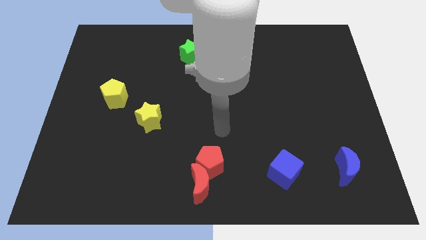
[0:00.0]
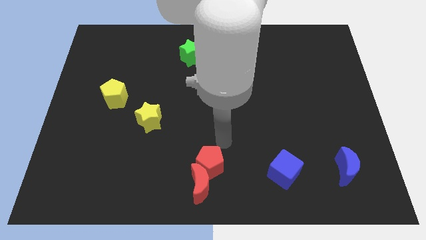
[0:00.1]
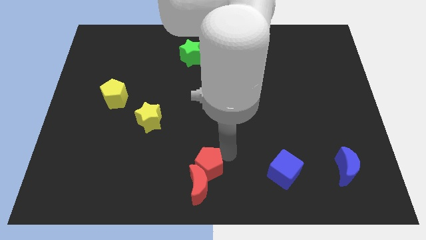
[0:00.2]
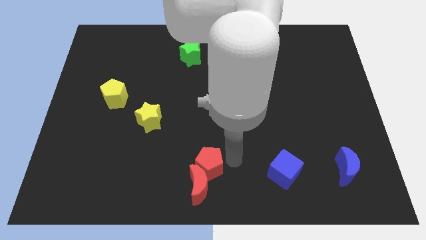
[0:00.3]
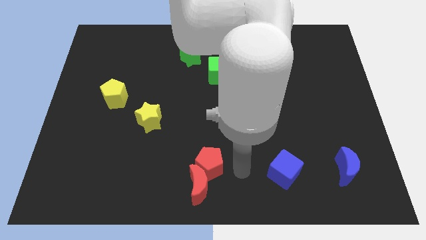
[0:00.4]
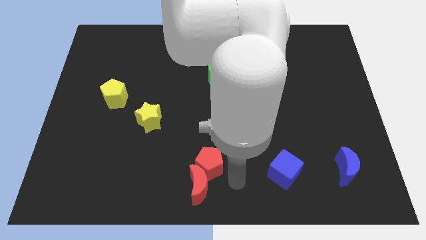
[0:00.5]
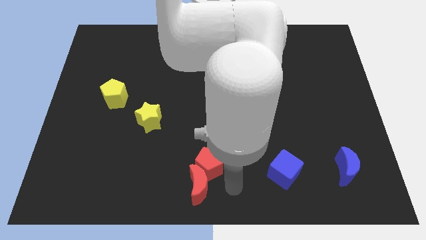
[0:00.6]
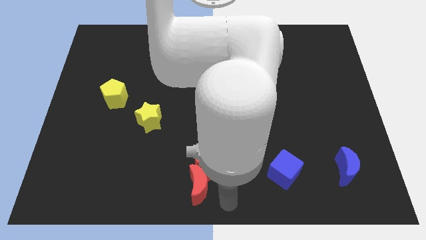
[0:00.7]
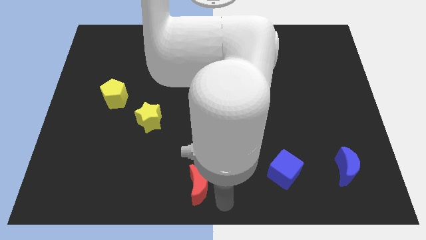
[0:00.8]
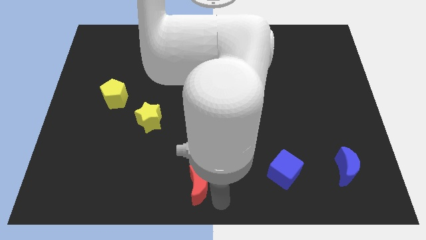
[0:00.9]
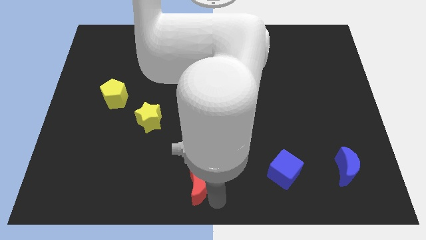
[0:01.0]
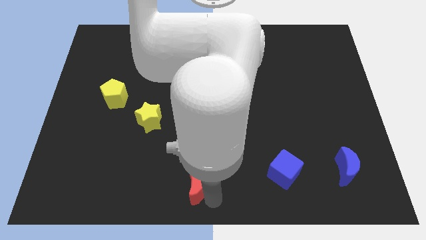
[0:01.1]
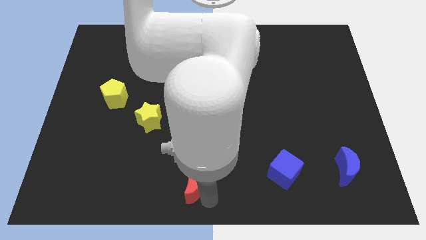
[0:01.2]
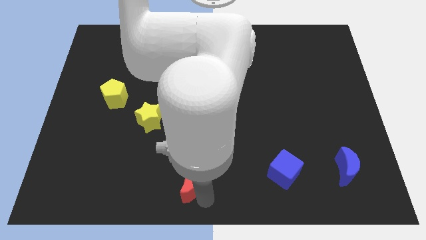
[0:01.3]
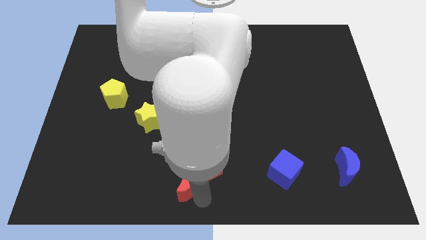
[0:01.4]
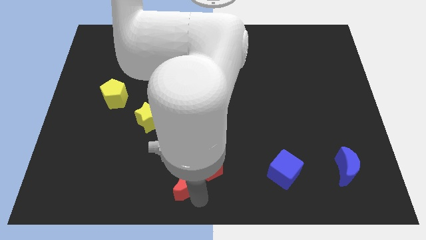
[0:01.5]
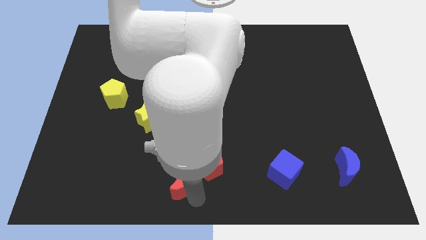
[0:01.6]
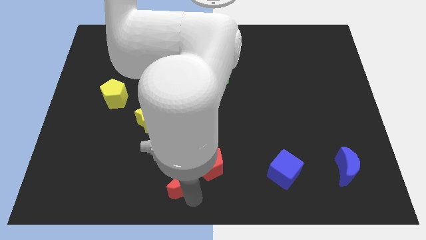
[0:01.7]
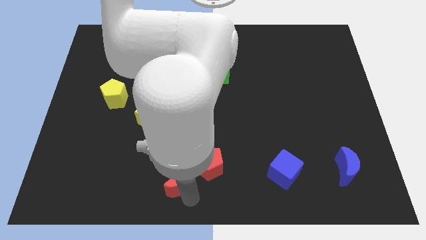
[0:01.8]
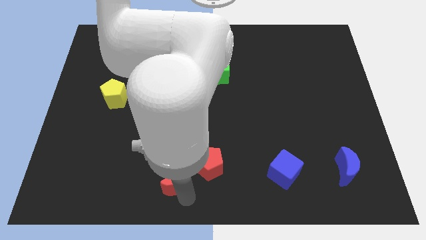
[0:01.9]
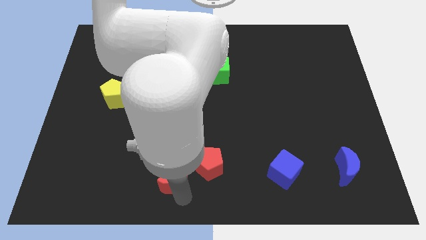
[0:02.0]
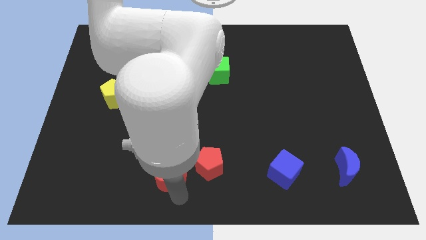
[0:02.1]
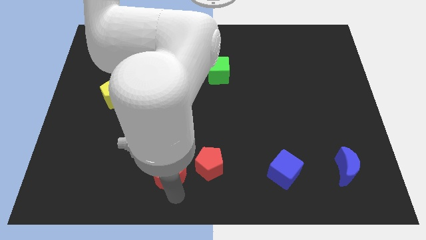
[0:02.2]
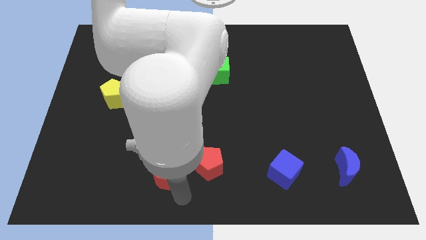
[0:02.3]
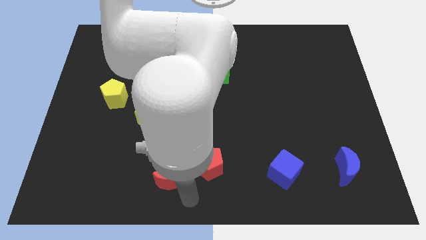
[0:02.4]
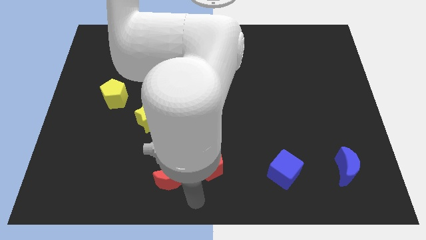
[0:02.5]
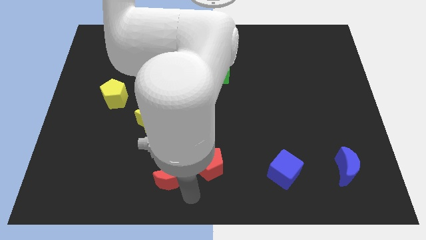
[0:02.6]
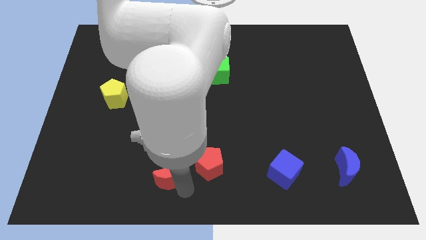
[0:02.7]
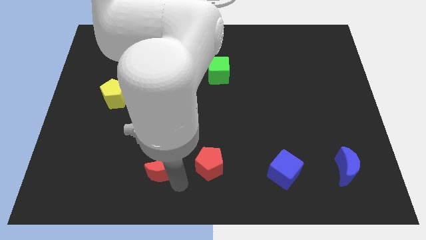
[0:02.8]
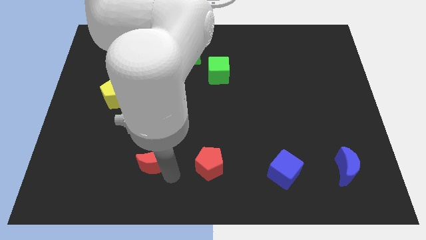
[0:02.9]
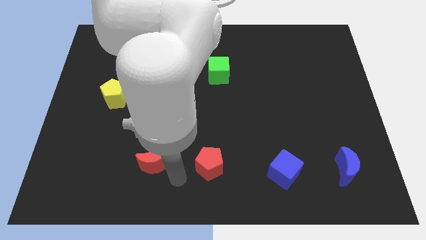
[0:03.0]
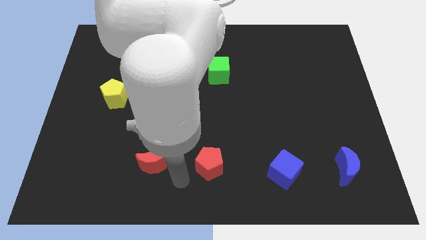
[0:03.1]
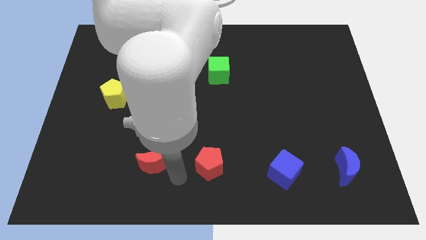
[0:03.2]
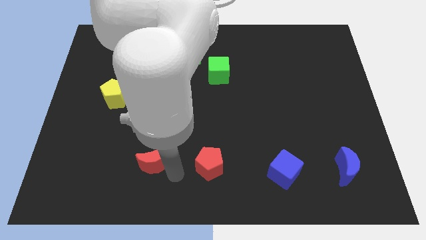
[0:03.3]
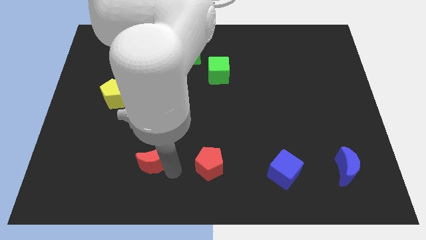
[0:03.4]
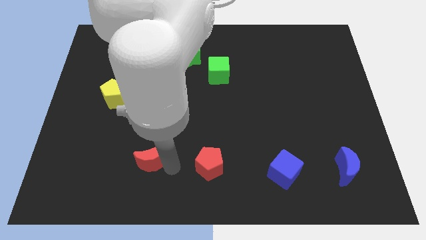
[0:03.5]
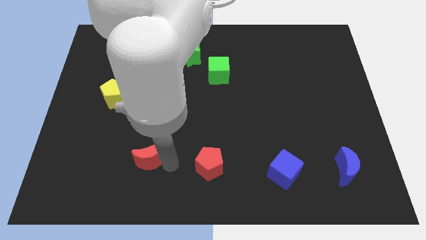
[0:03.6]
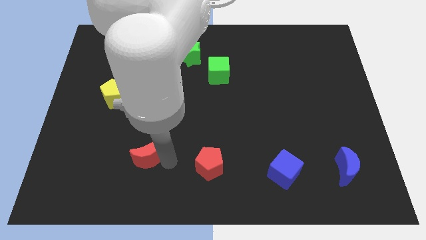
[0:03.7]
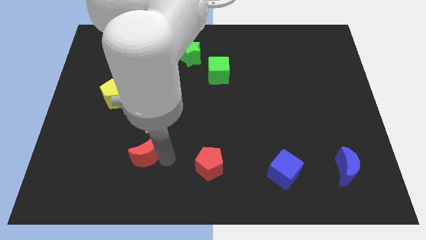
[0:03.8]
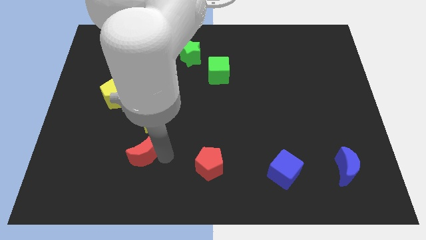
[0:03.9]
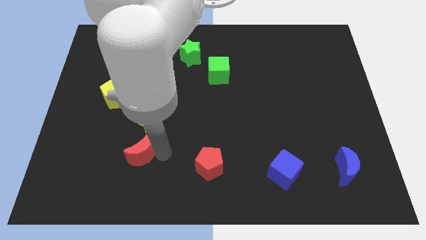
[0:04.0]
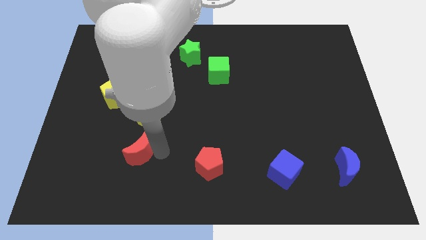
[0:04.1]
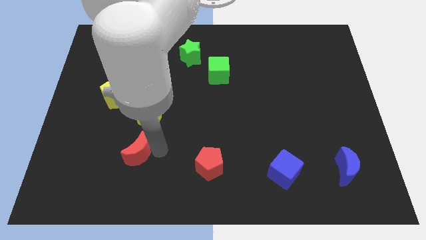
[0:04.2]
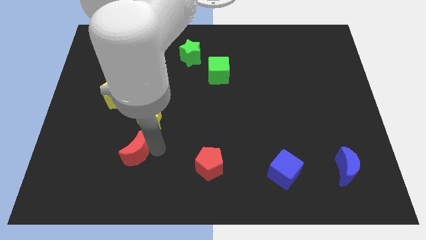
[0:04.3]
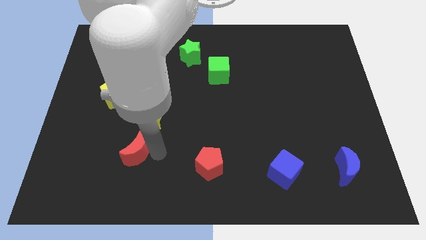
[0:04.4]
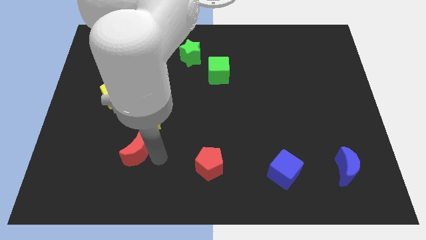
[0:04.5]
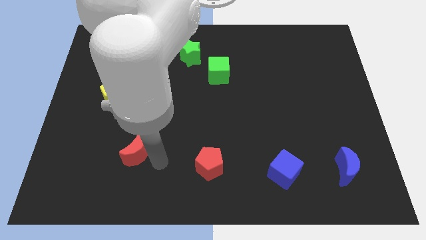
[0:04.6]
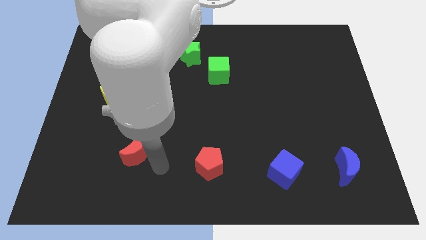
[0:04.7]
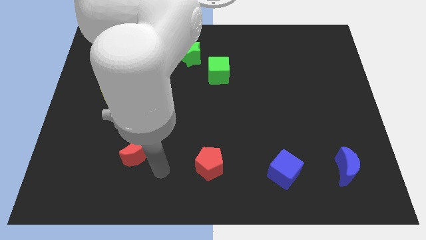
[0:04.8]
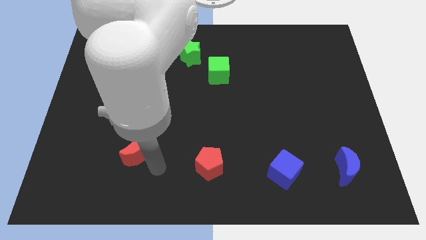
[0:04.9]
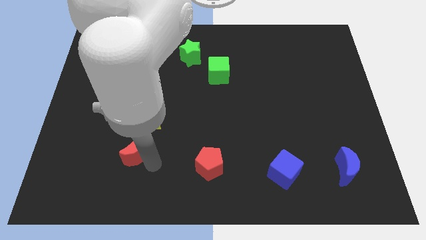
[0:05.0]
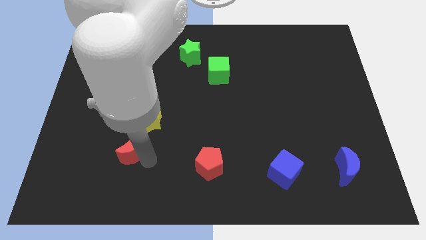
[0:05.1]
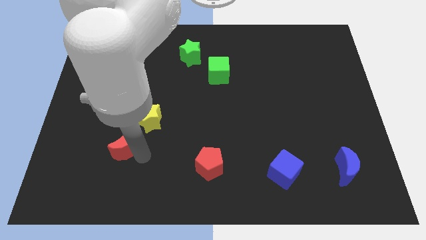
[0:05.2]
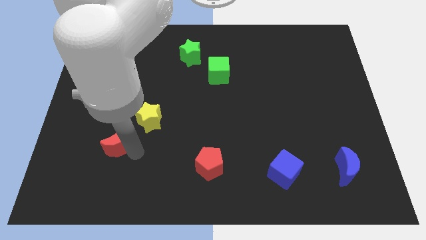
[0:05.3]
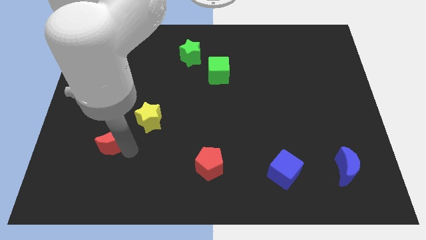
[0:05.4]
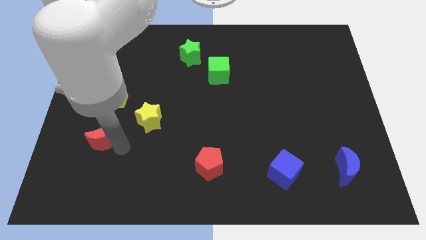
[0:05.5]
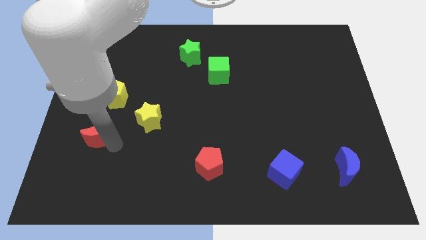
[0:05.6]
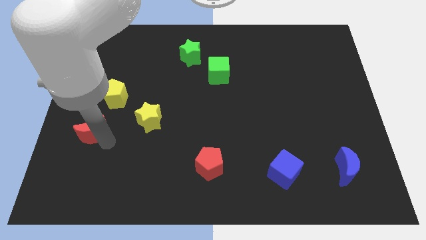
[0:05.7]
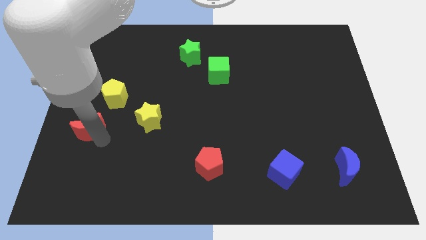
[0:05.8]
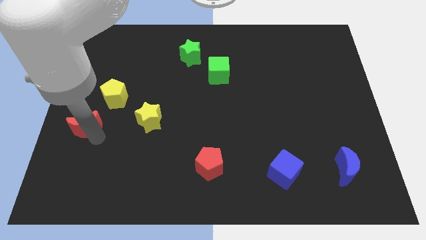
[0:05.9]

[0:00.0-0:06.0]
push the red moon to the center left
